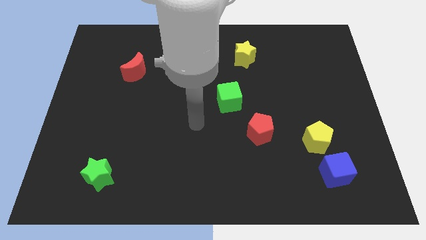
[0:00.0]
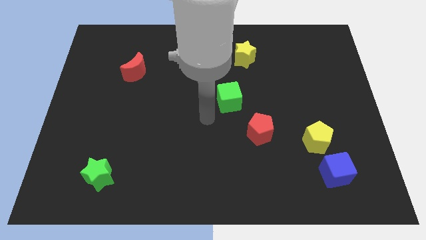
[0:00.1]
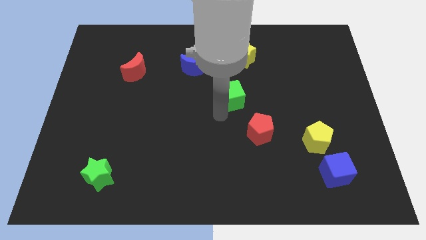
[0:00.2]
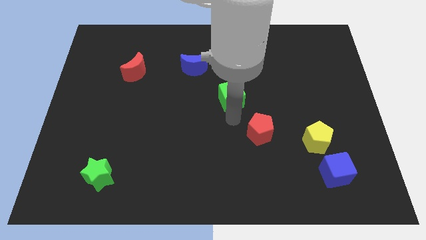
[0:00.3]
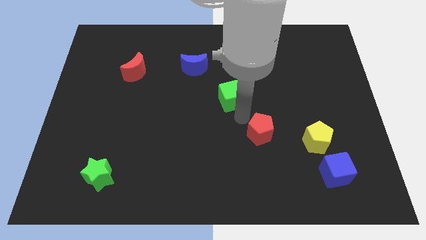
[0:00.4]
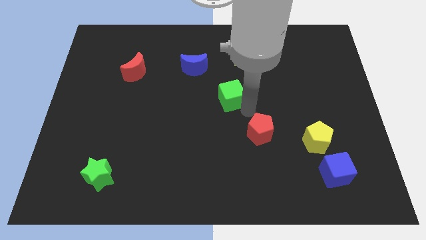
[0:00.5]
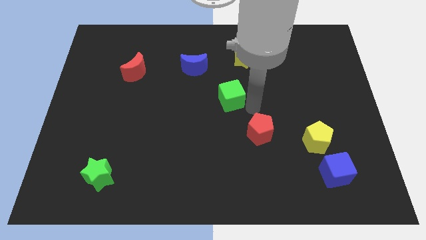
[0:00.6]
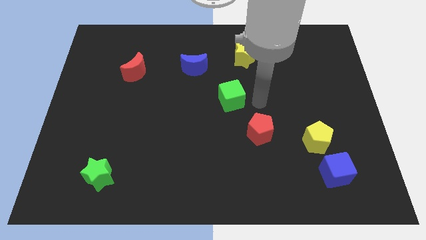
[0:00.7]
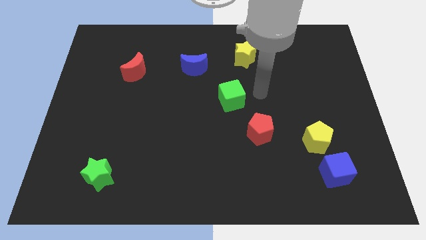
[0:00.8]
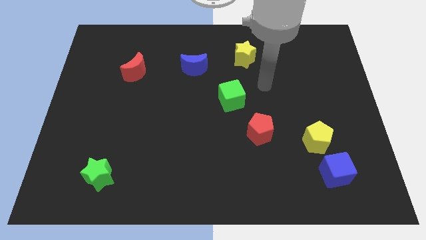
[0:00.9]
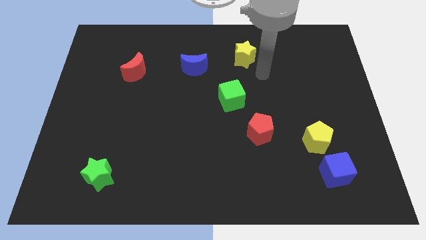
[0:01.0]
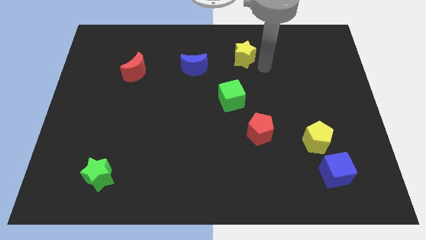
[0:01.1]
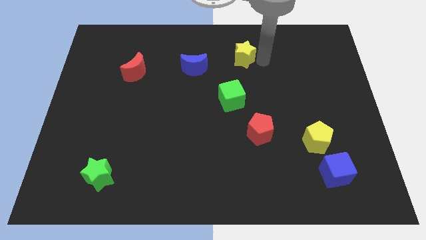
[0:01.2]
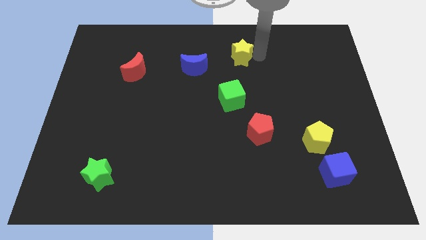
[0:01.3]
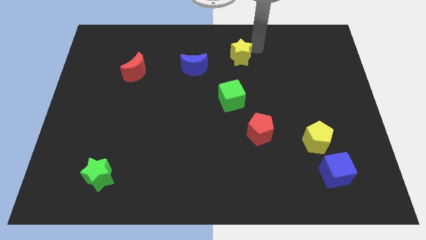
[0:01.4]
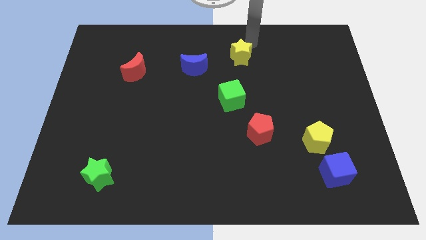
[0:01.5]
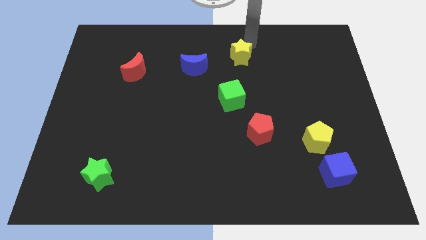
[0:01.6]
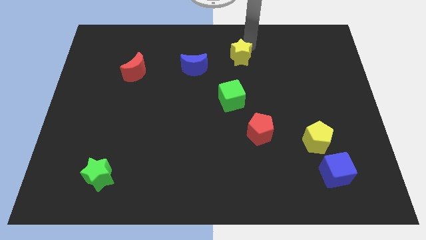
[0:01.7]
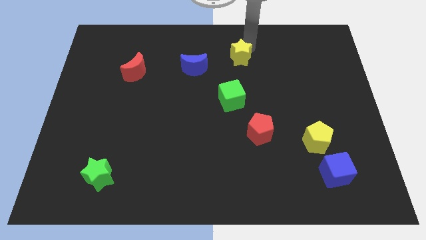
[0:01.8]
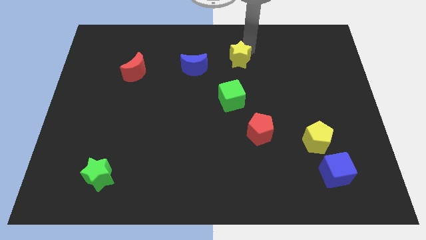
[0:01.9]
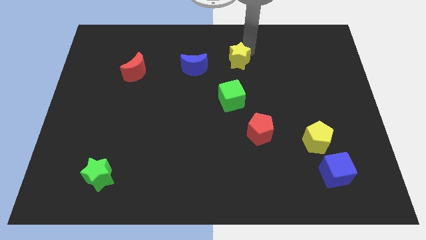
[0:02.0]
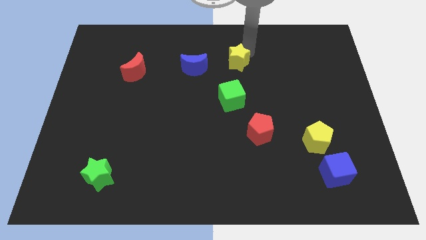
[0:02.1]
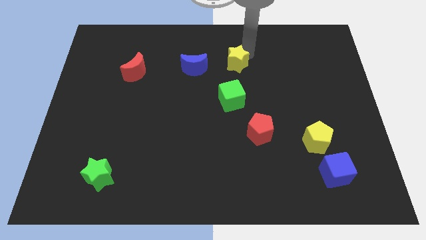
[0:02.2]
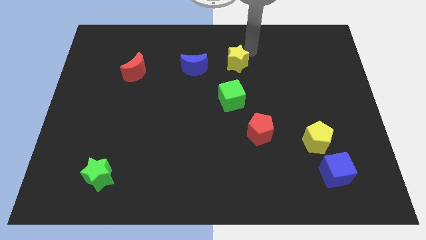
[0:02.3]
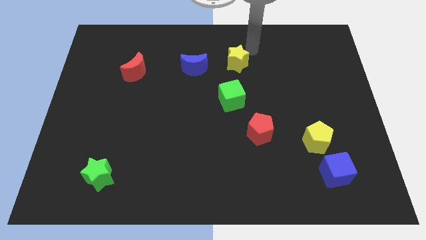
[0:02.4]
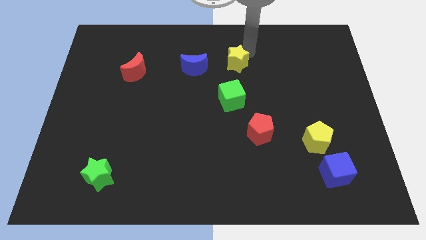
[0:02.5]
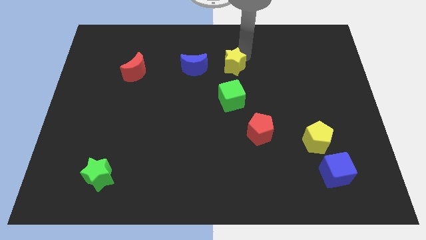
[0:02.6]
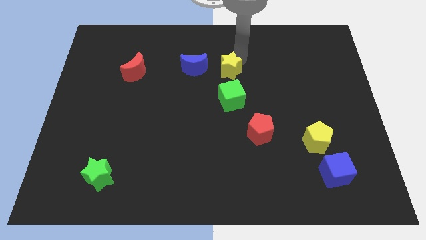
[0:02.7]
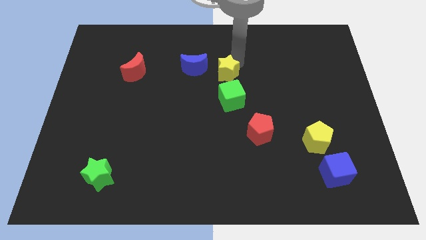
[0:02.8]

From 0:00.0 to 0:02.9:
move the yellow star down and to the left somewhat

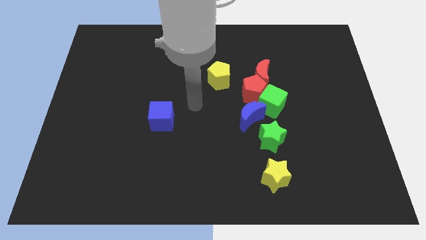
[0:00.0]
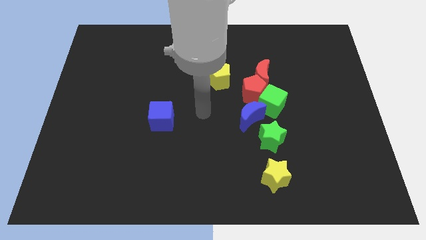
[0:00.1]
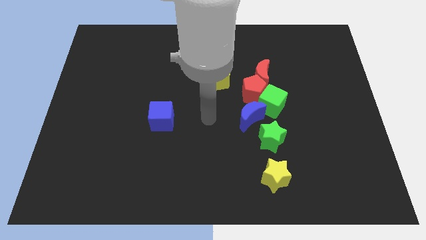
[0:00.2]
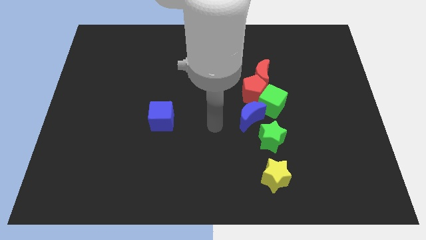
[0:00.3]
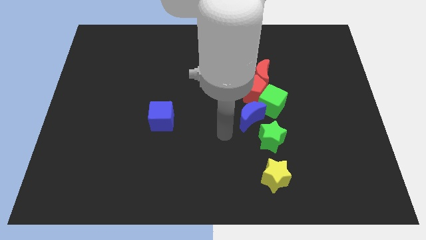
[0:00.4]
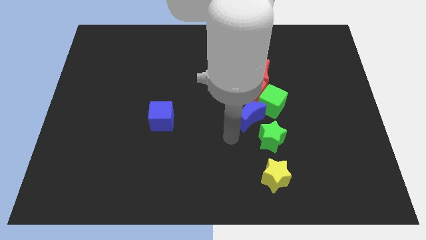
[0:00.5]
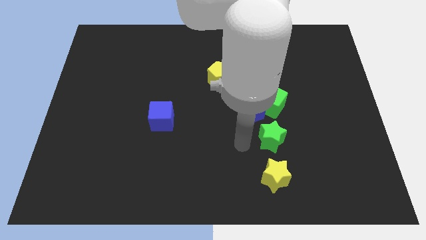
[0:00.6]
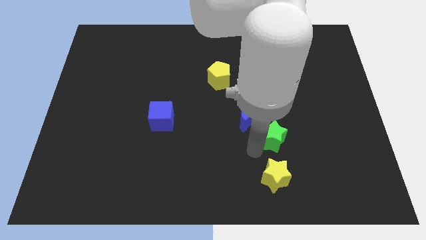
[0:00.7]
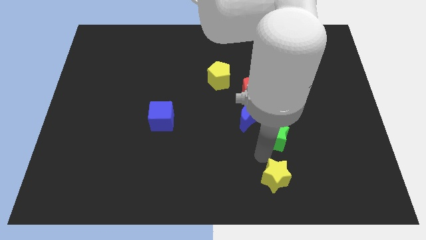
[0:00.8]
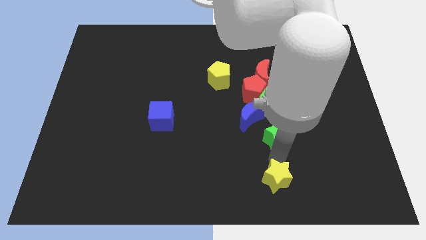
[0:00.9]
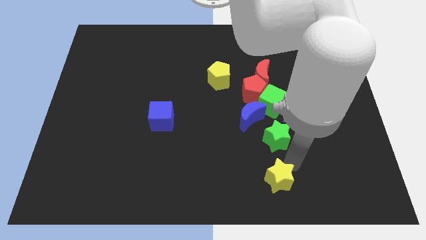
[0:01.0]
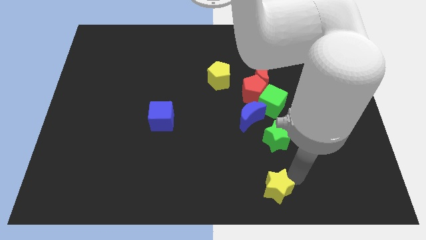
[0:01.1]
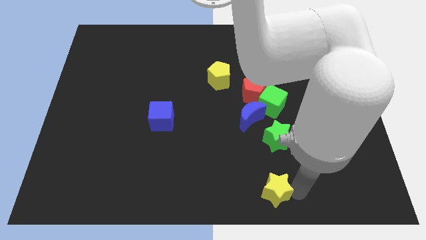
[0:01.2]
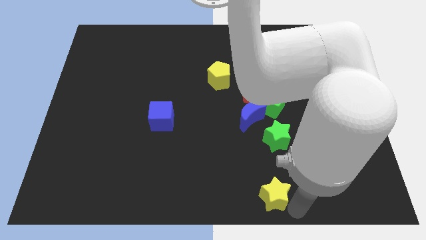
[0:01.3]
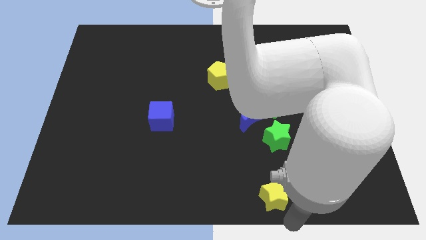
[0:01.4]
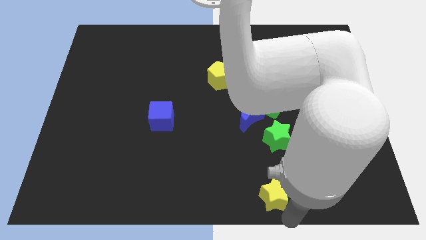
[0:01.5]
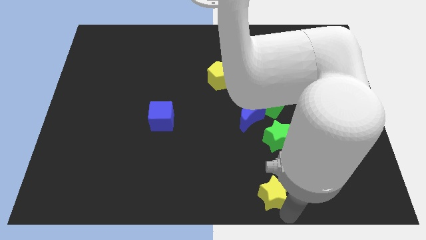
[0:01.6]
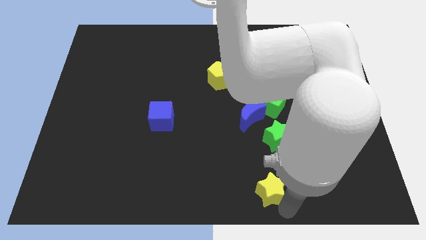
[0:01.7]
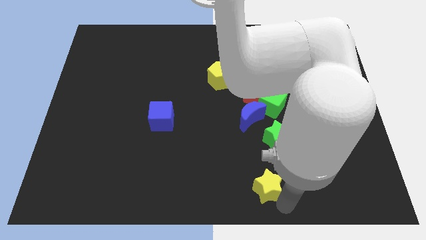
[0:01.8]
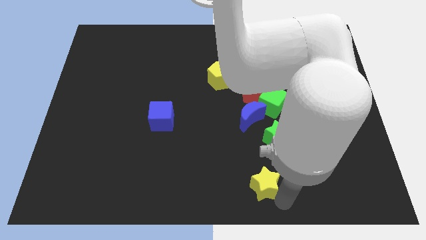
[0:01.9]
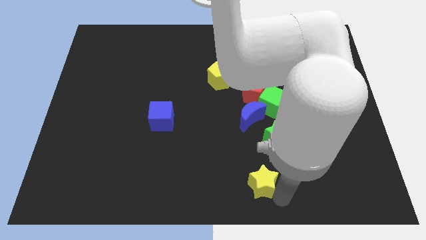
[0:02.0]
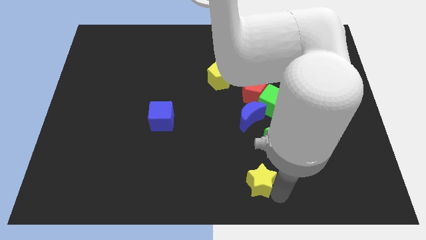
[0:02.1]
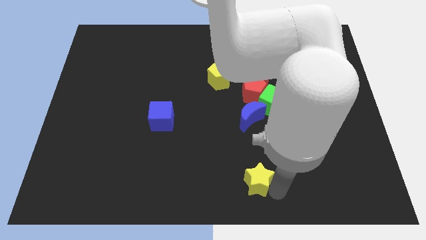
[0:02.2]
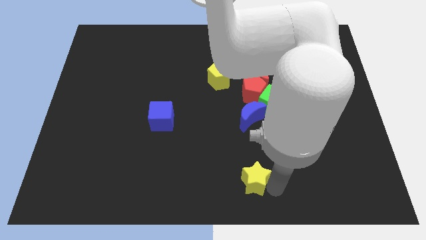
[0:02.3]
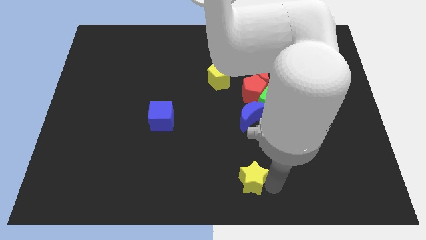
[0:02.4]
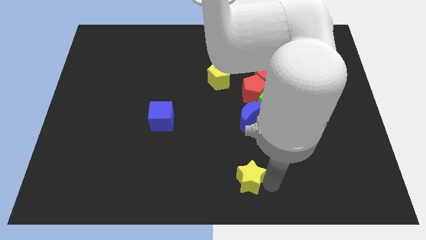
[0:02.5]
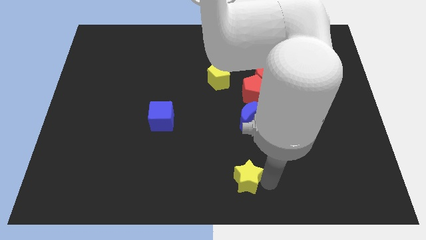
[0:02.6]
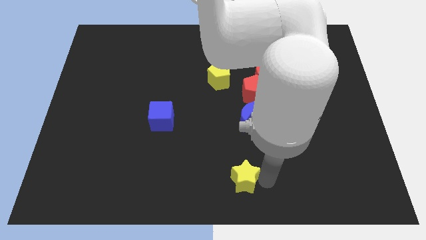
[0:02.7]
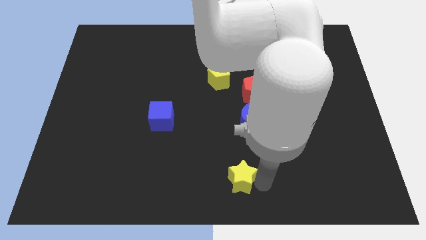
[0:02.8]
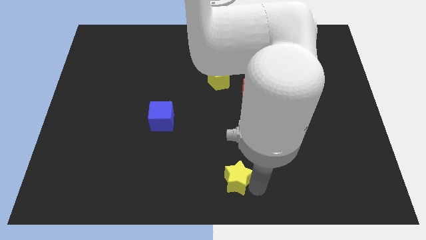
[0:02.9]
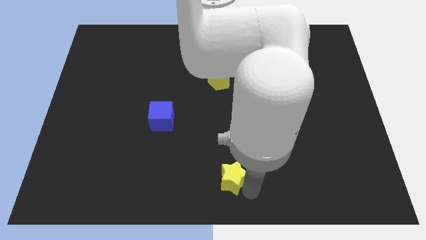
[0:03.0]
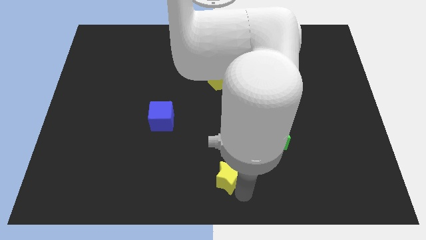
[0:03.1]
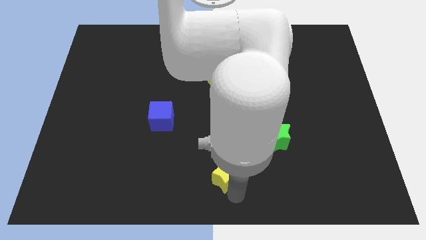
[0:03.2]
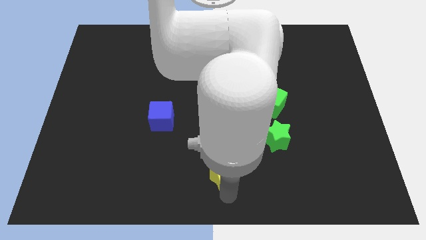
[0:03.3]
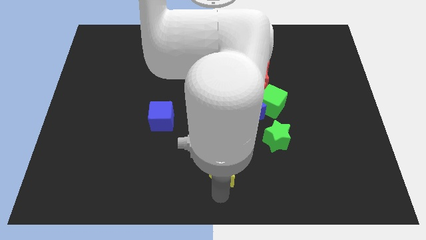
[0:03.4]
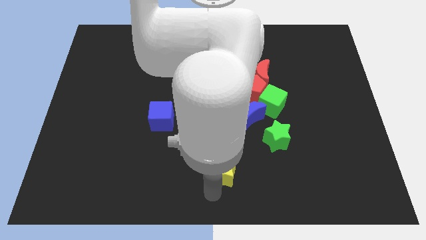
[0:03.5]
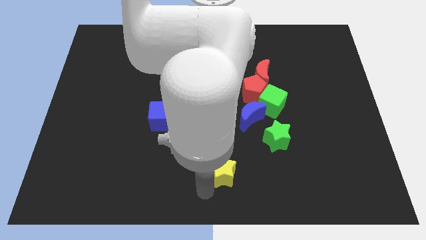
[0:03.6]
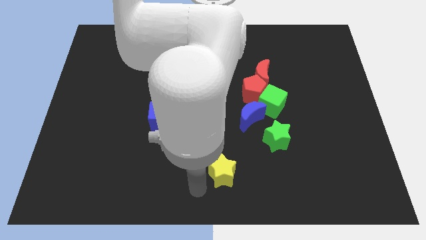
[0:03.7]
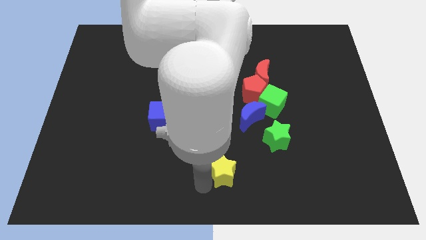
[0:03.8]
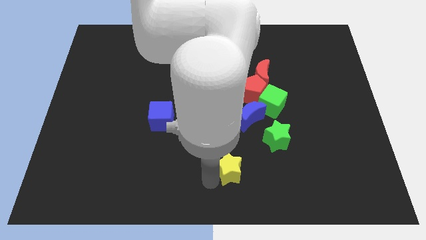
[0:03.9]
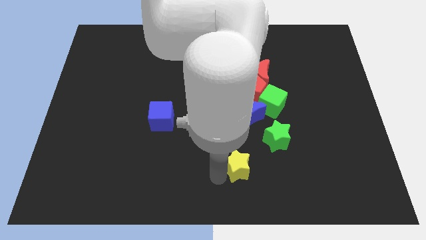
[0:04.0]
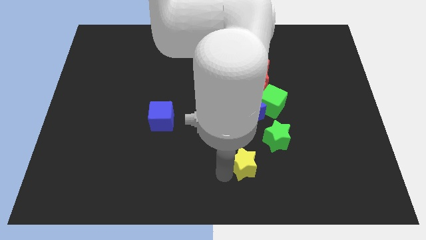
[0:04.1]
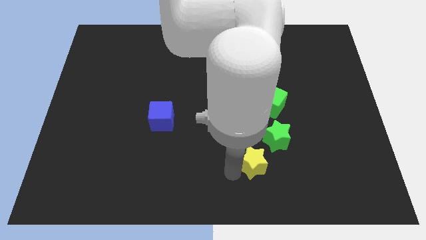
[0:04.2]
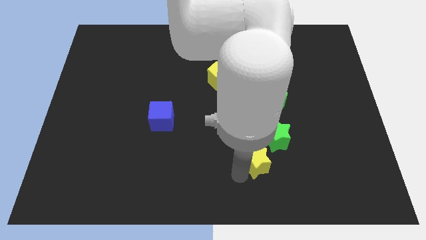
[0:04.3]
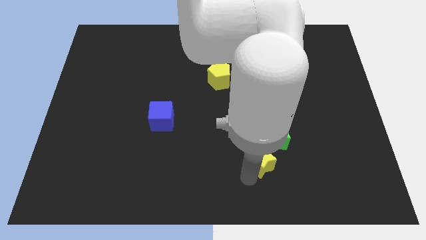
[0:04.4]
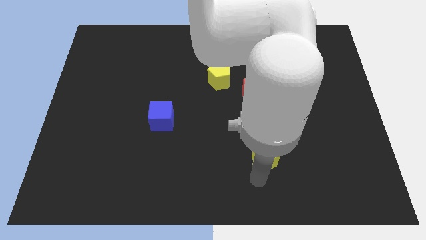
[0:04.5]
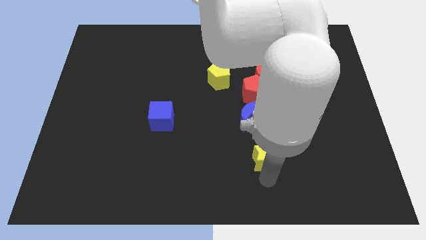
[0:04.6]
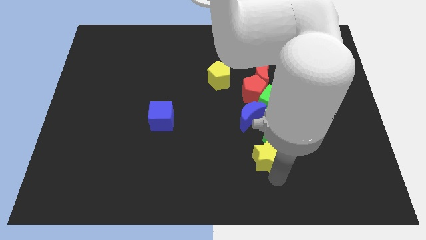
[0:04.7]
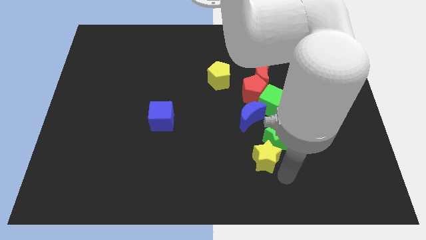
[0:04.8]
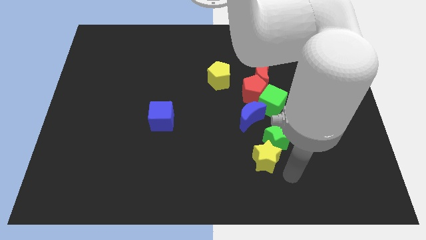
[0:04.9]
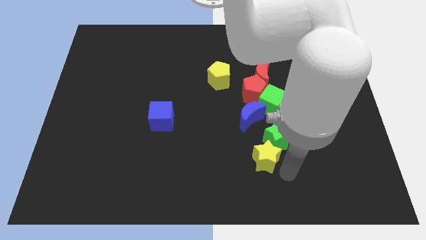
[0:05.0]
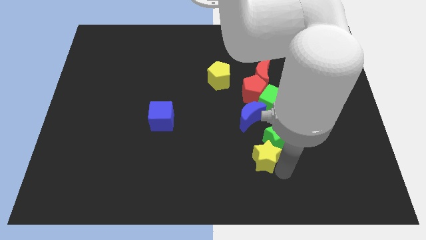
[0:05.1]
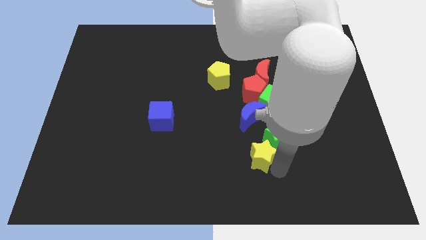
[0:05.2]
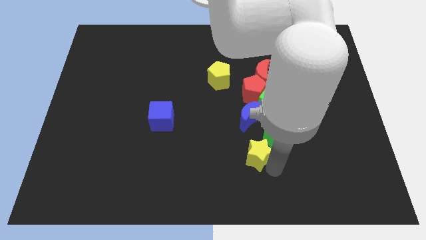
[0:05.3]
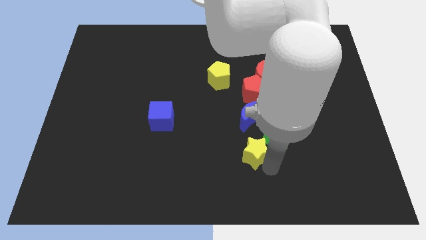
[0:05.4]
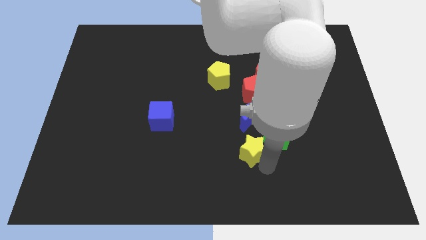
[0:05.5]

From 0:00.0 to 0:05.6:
slightly push the yellow star up and to the left diagonally
